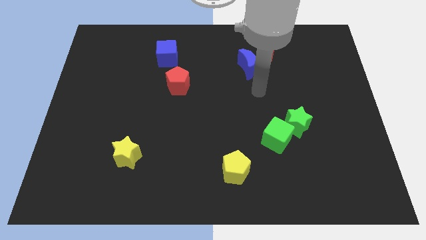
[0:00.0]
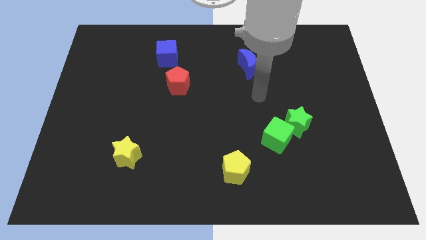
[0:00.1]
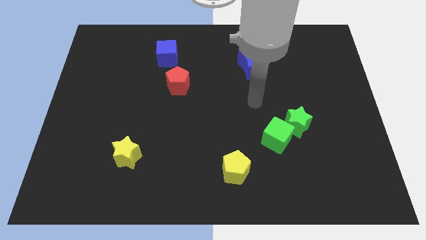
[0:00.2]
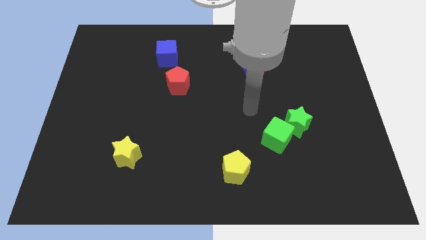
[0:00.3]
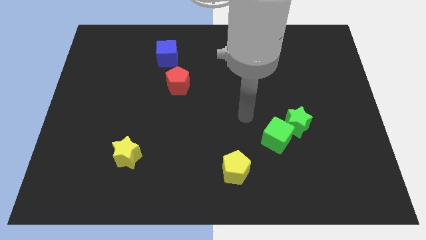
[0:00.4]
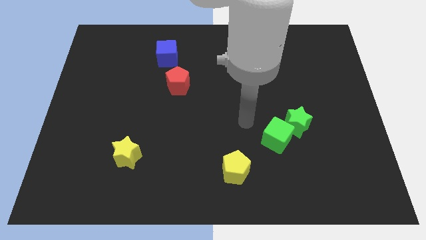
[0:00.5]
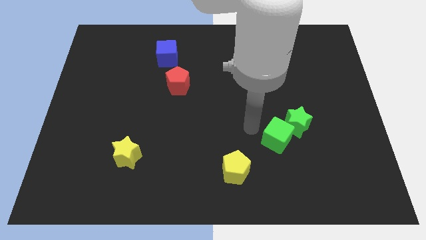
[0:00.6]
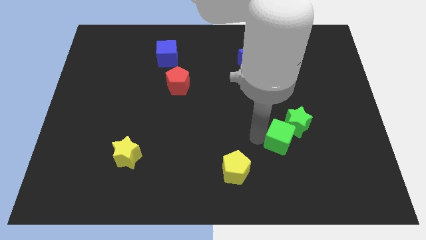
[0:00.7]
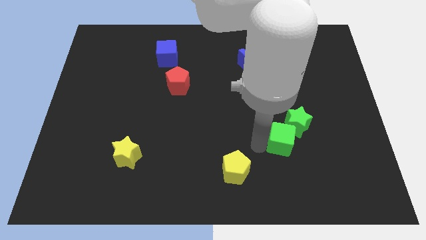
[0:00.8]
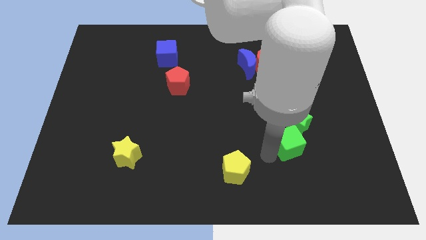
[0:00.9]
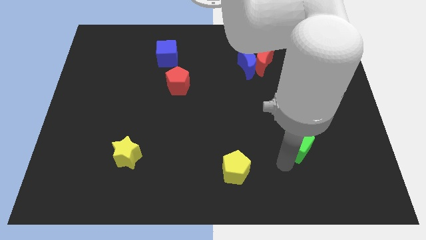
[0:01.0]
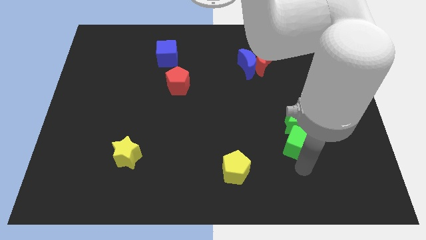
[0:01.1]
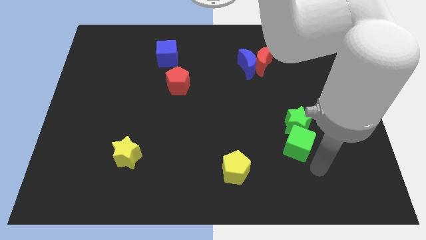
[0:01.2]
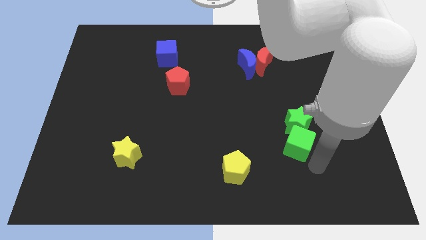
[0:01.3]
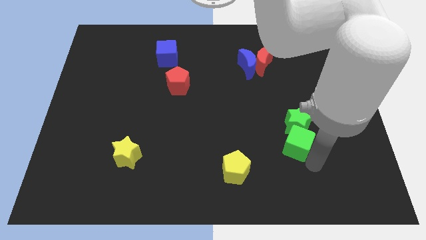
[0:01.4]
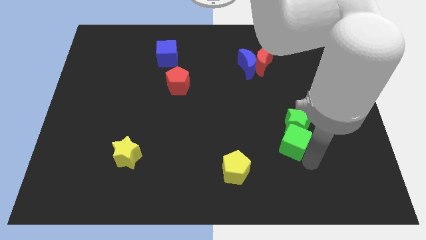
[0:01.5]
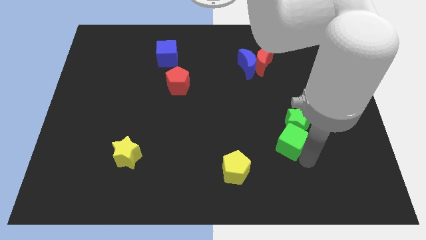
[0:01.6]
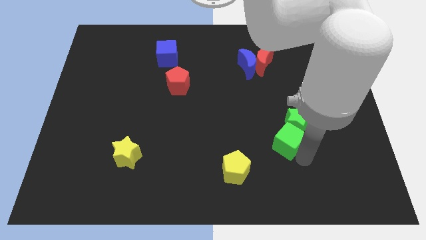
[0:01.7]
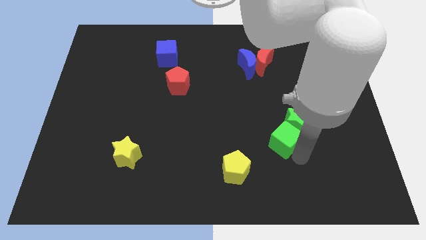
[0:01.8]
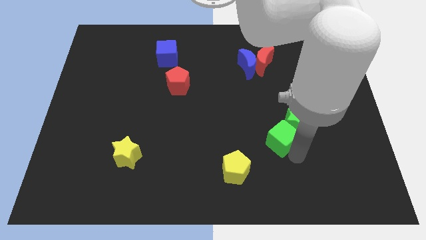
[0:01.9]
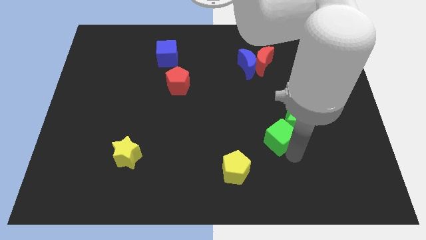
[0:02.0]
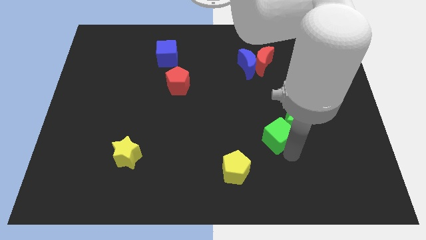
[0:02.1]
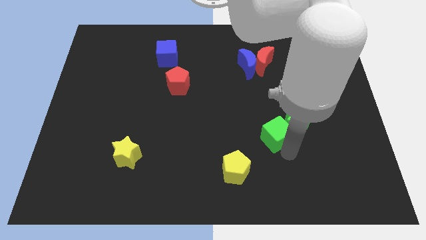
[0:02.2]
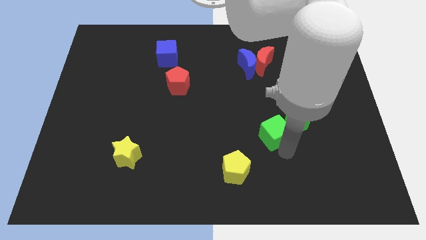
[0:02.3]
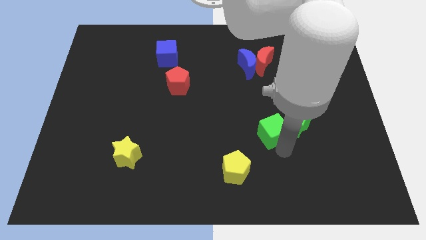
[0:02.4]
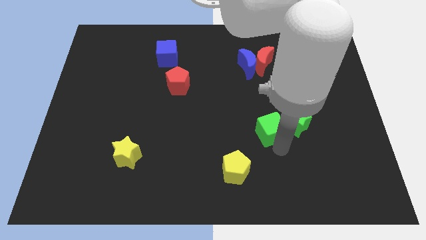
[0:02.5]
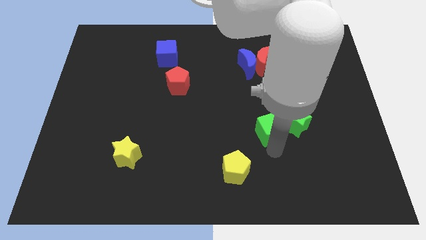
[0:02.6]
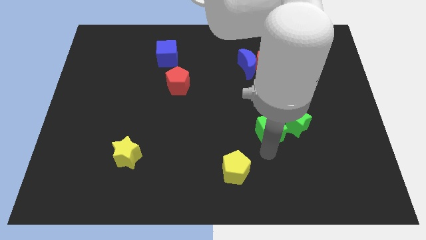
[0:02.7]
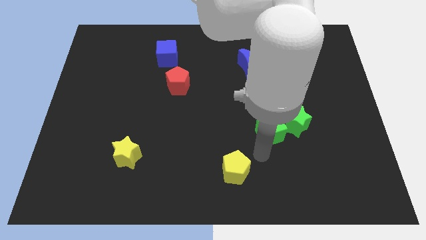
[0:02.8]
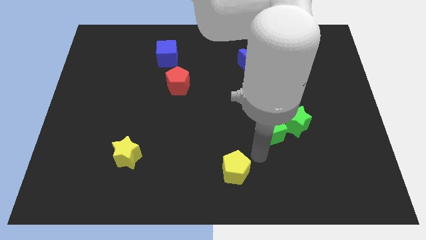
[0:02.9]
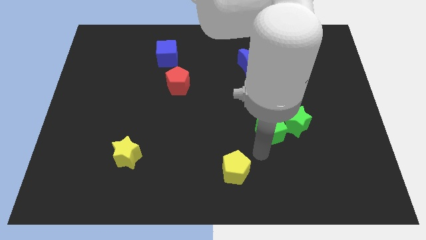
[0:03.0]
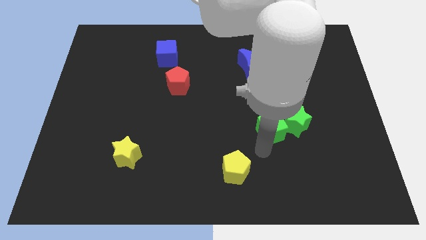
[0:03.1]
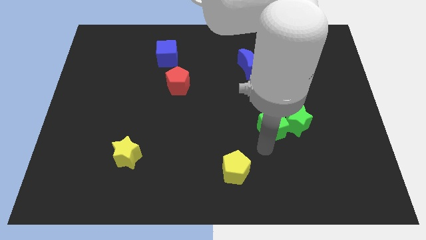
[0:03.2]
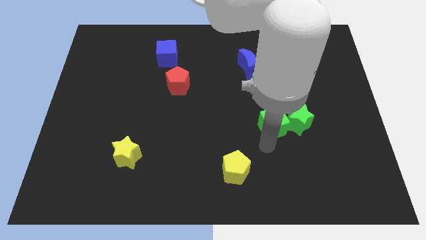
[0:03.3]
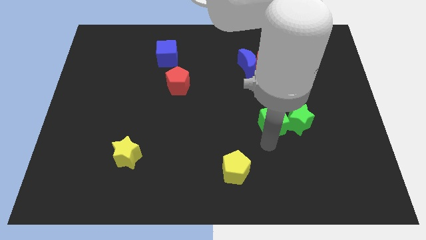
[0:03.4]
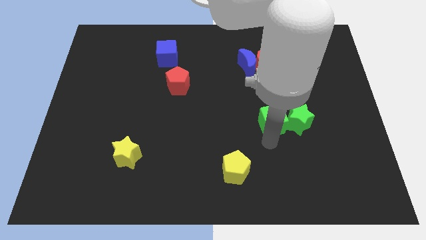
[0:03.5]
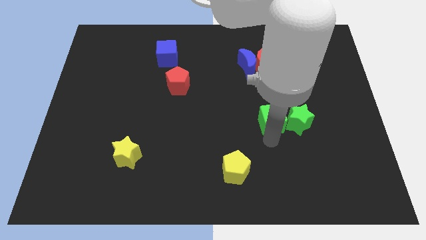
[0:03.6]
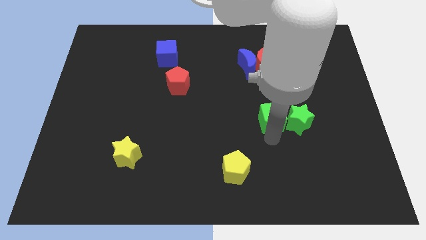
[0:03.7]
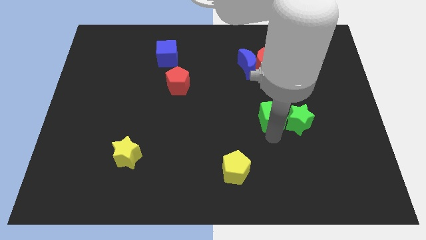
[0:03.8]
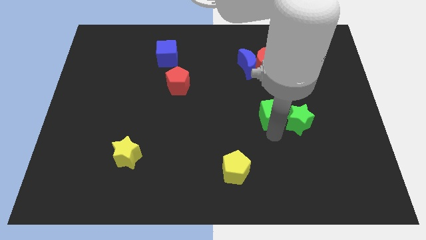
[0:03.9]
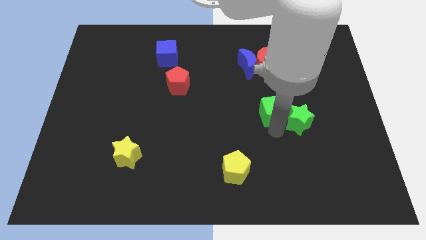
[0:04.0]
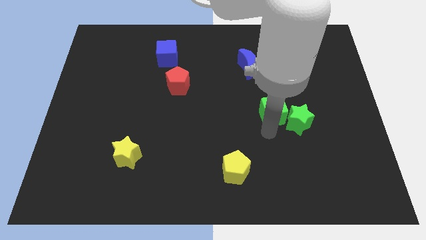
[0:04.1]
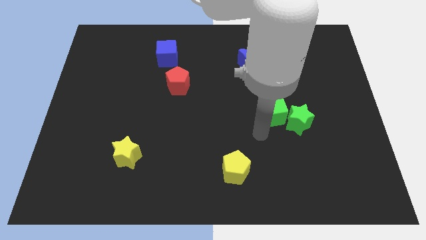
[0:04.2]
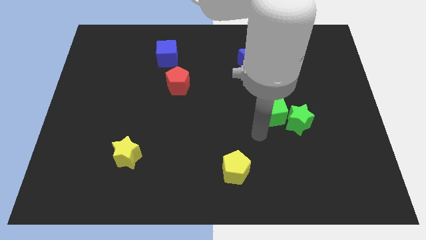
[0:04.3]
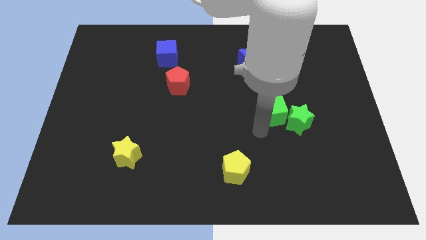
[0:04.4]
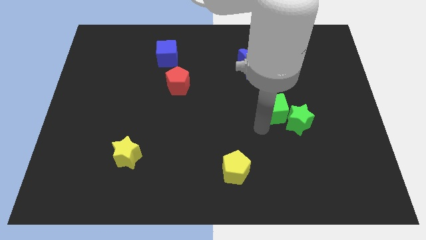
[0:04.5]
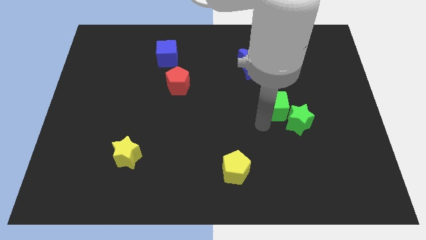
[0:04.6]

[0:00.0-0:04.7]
put the green cube to the top side of the green star

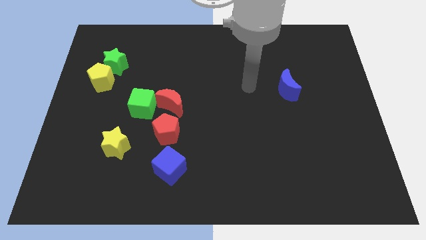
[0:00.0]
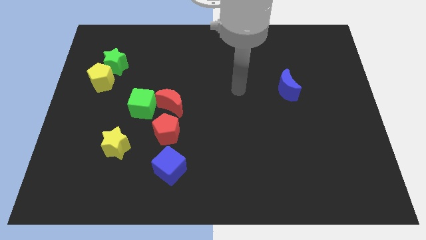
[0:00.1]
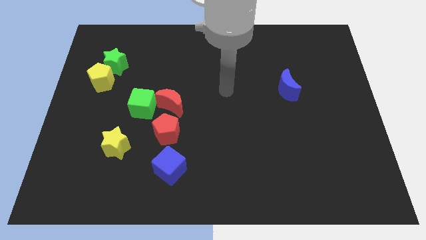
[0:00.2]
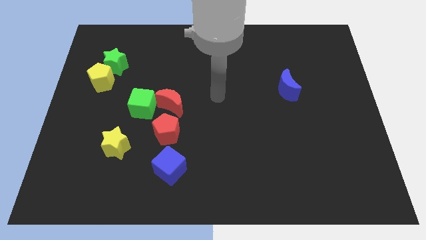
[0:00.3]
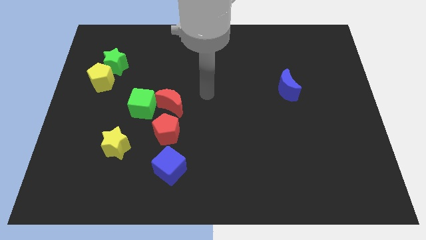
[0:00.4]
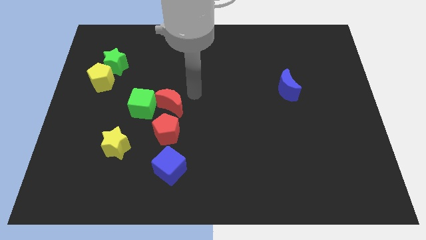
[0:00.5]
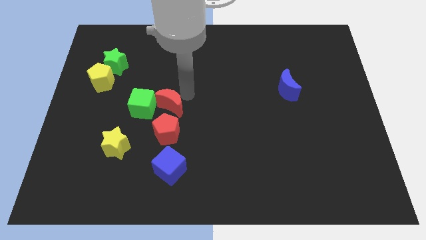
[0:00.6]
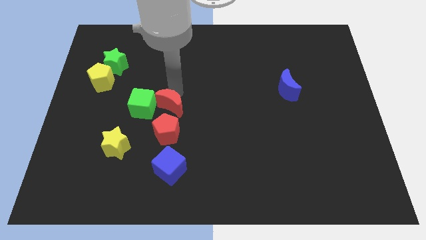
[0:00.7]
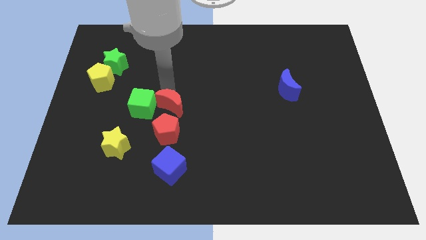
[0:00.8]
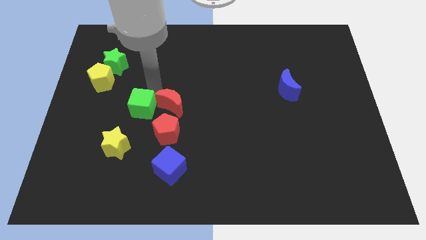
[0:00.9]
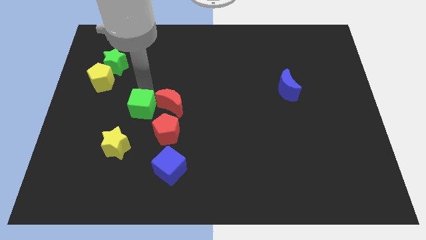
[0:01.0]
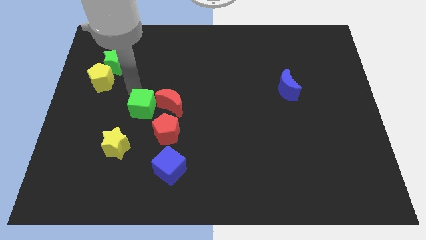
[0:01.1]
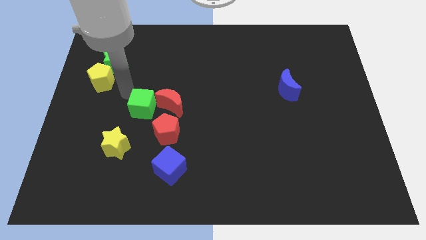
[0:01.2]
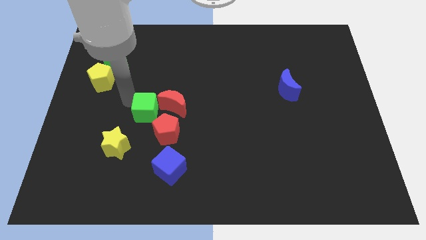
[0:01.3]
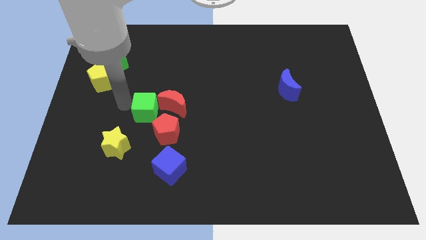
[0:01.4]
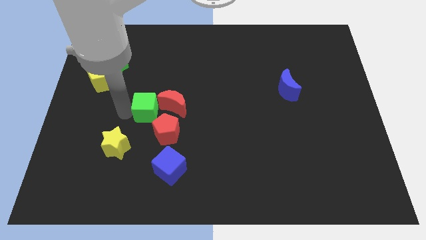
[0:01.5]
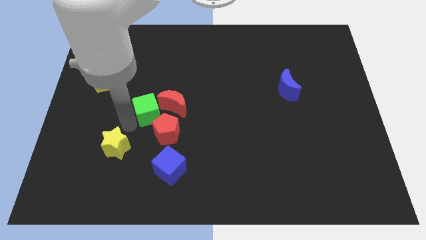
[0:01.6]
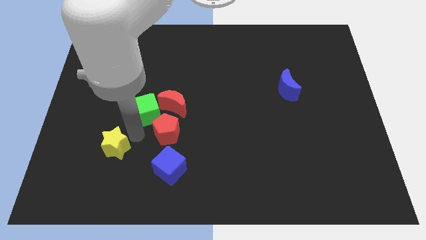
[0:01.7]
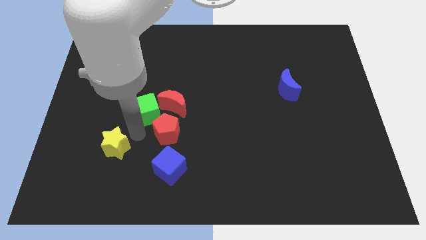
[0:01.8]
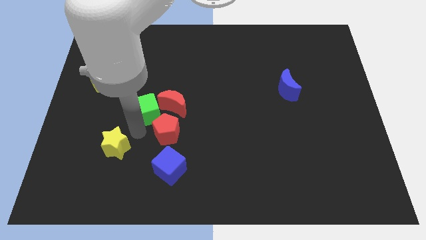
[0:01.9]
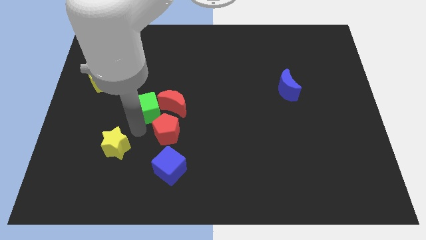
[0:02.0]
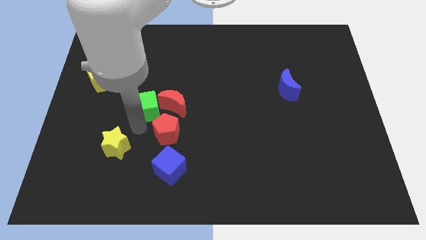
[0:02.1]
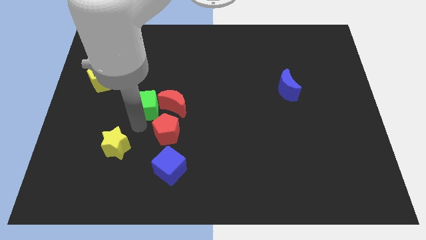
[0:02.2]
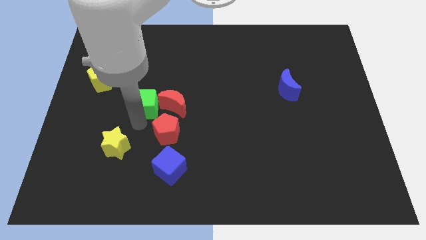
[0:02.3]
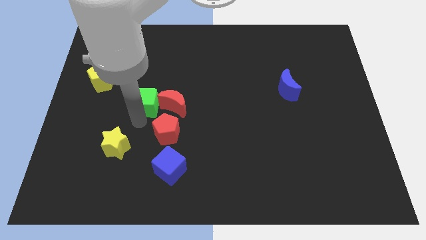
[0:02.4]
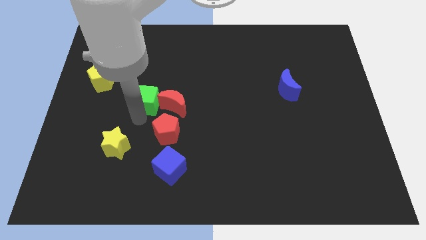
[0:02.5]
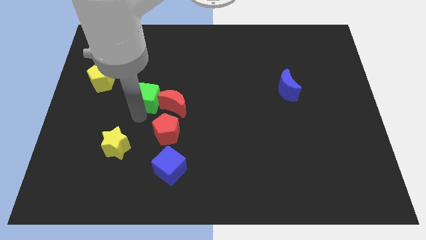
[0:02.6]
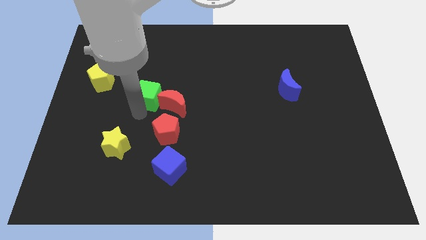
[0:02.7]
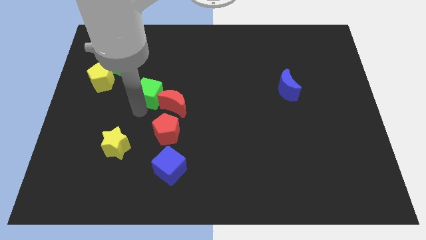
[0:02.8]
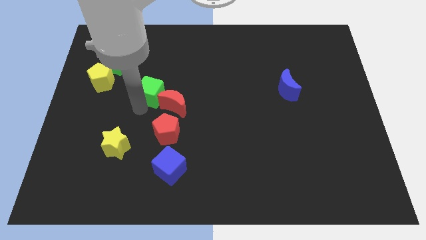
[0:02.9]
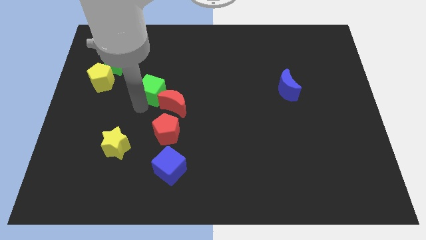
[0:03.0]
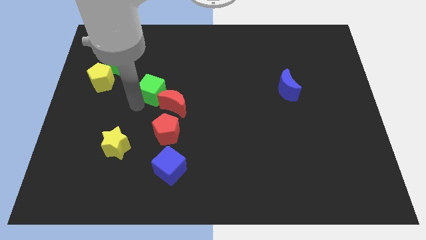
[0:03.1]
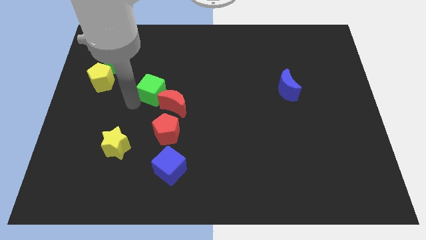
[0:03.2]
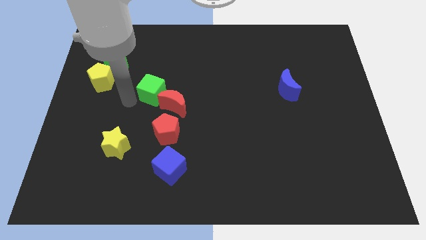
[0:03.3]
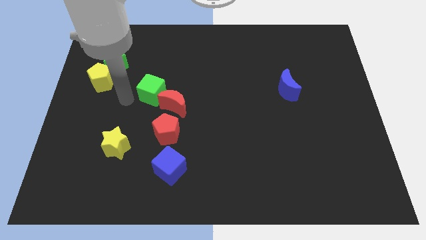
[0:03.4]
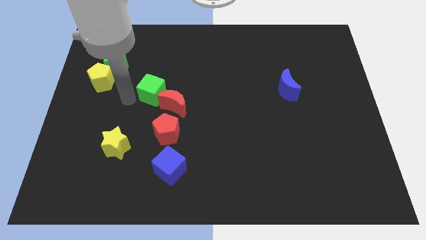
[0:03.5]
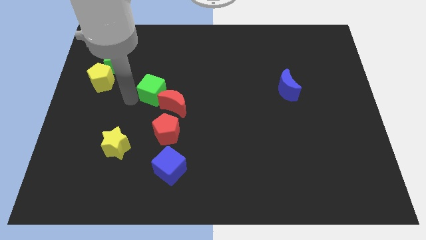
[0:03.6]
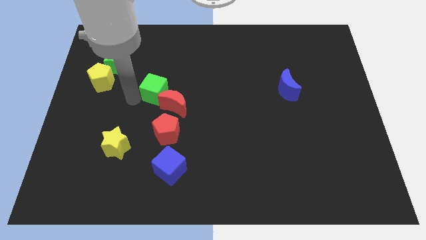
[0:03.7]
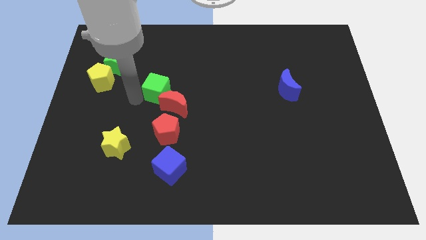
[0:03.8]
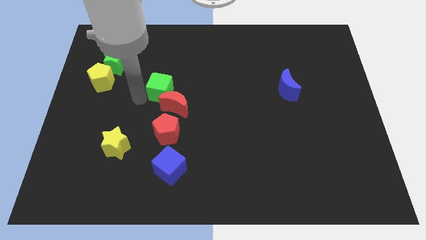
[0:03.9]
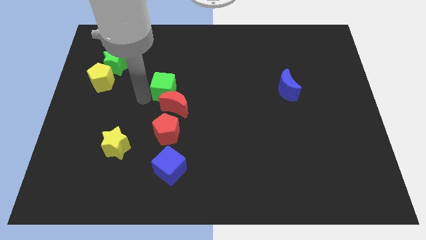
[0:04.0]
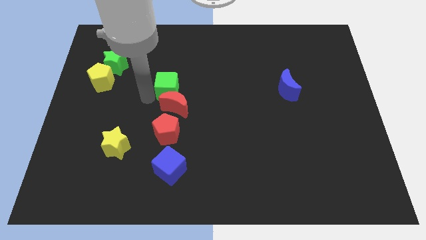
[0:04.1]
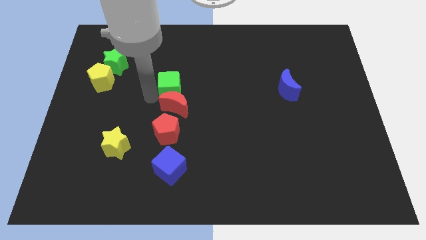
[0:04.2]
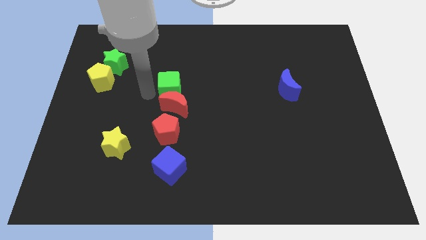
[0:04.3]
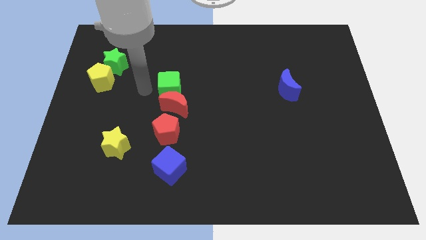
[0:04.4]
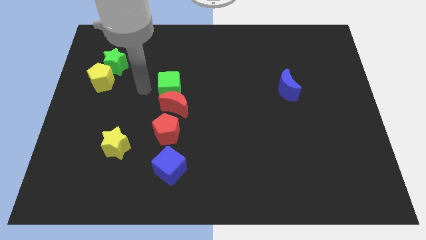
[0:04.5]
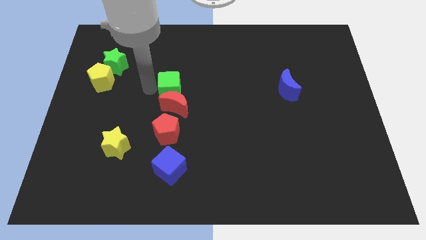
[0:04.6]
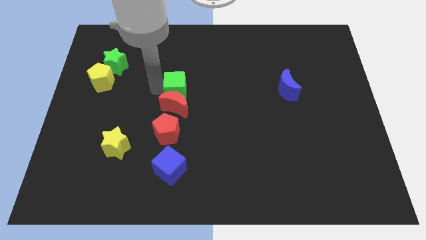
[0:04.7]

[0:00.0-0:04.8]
push the green cube to the top right of the red moon
